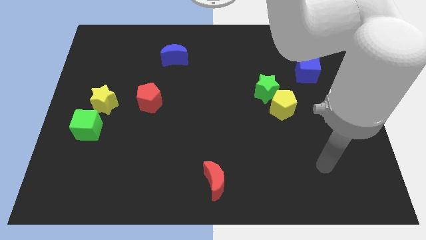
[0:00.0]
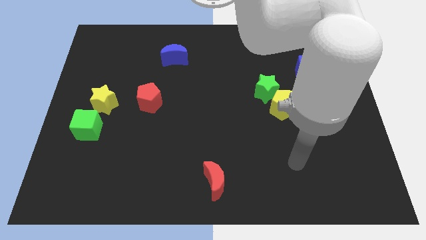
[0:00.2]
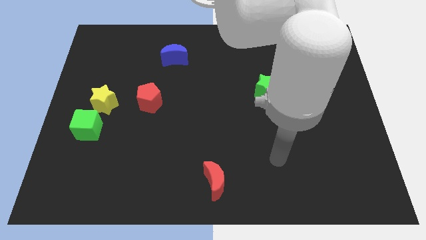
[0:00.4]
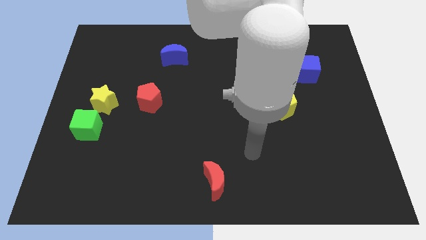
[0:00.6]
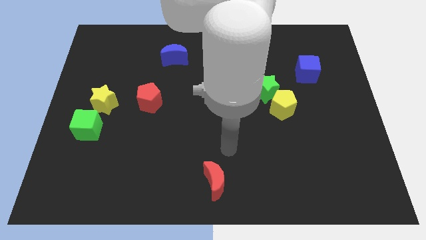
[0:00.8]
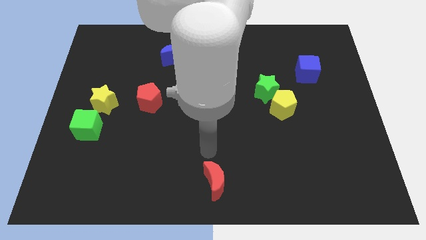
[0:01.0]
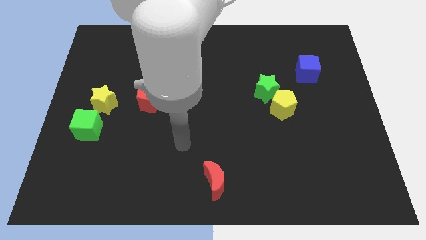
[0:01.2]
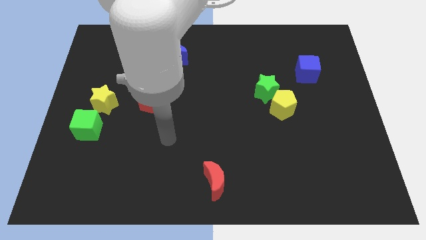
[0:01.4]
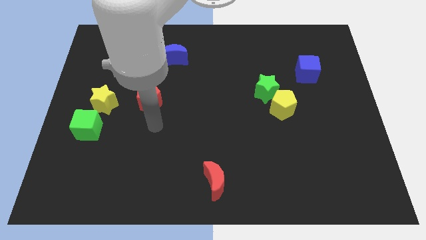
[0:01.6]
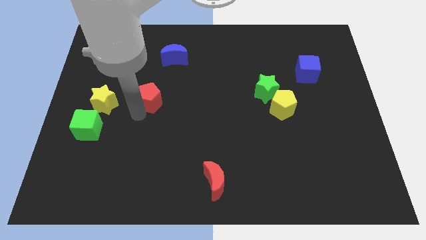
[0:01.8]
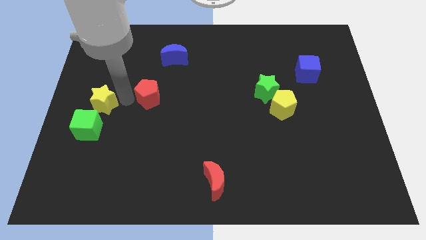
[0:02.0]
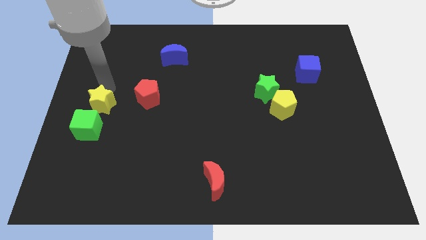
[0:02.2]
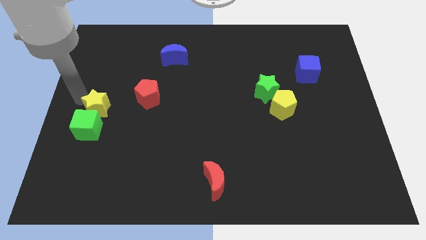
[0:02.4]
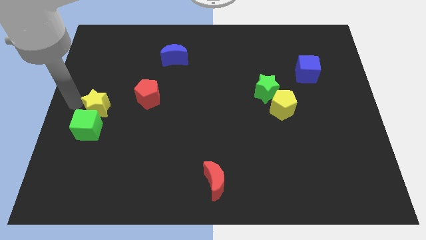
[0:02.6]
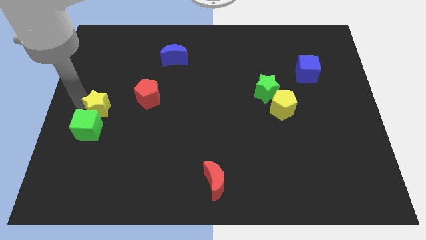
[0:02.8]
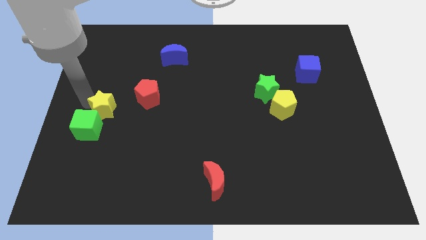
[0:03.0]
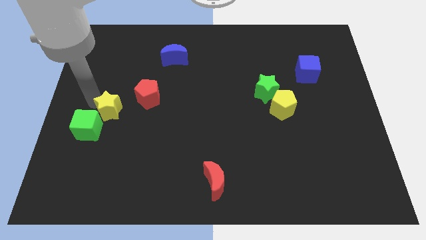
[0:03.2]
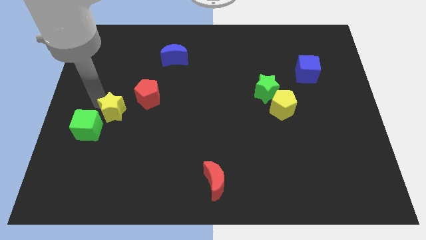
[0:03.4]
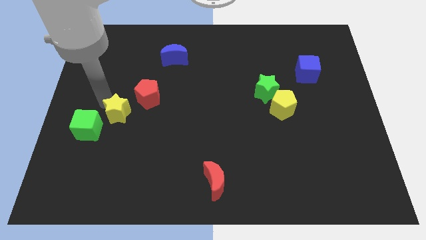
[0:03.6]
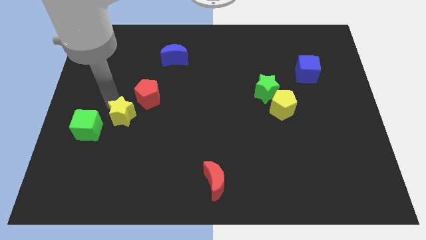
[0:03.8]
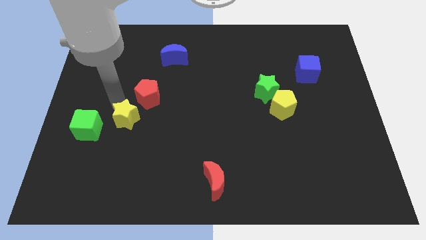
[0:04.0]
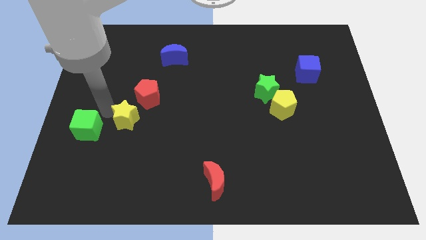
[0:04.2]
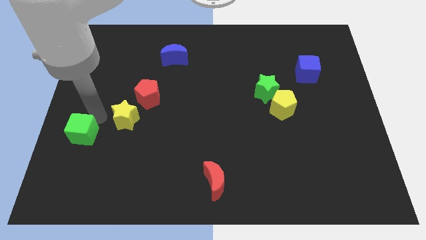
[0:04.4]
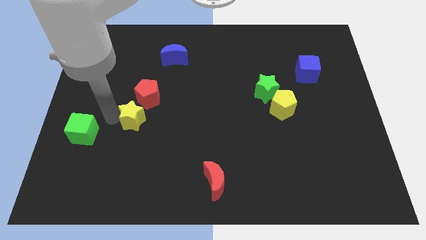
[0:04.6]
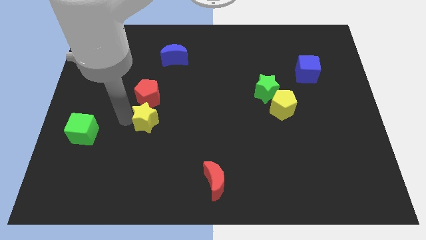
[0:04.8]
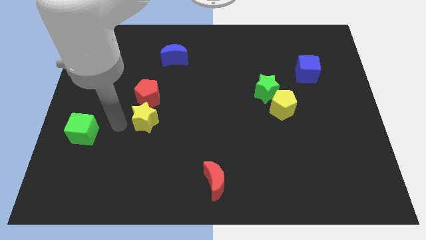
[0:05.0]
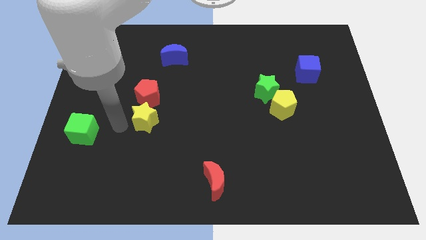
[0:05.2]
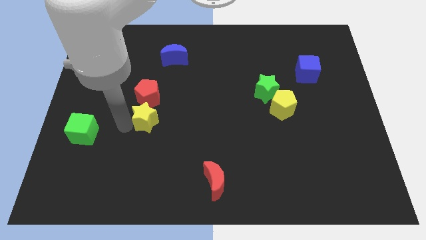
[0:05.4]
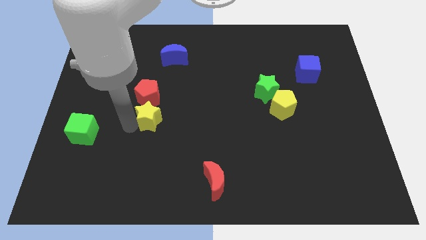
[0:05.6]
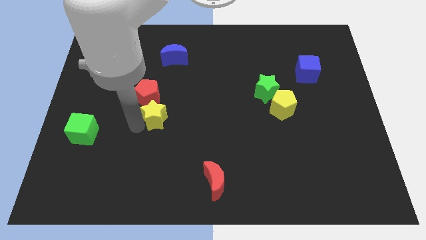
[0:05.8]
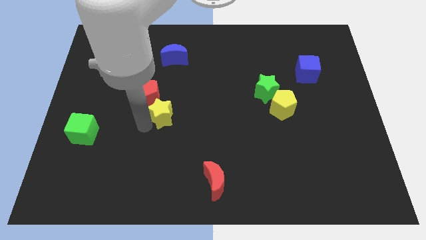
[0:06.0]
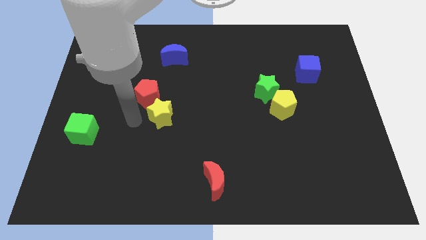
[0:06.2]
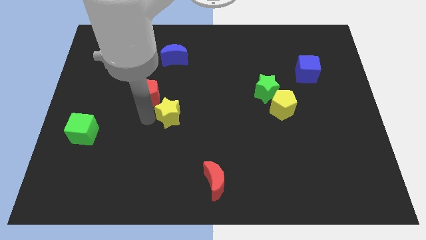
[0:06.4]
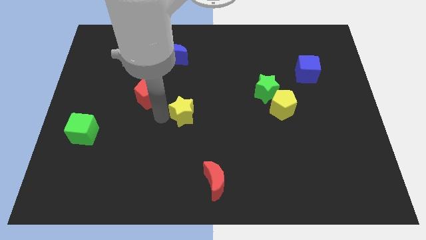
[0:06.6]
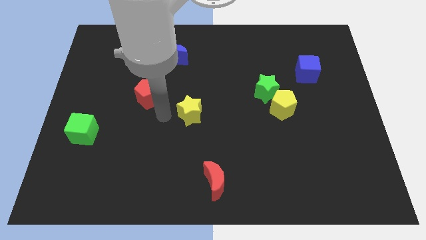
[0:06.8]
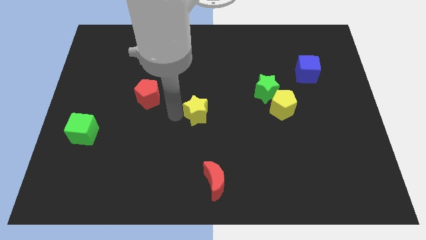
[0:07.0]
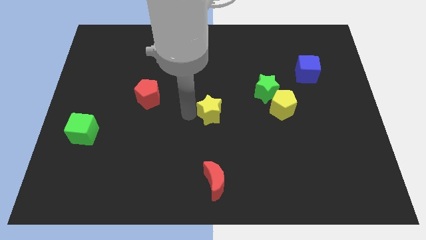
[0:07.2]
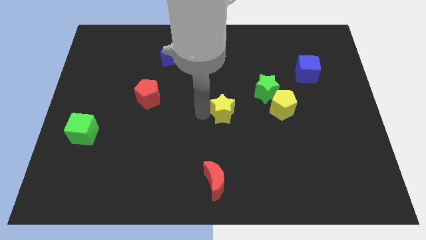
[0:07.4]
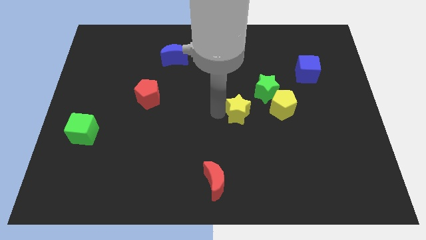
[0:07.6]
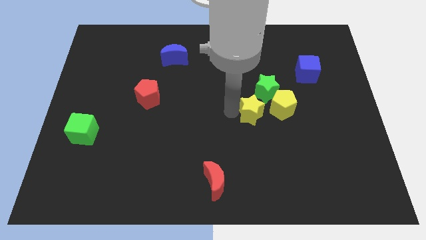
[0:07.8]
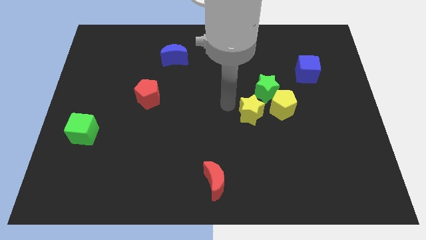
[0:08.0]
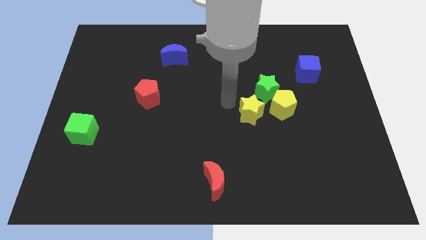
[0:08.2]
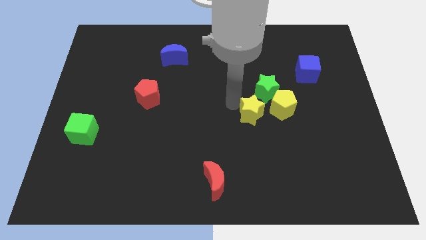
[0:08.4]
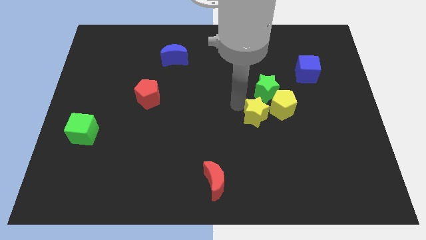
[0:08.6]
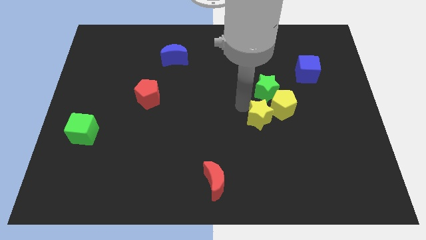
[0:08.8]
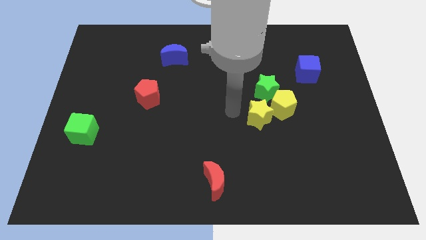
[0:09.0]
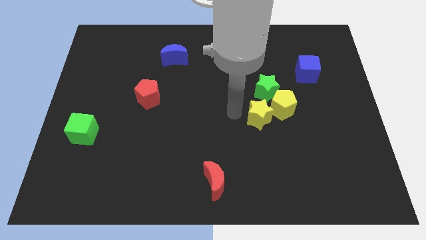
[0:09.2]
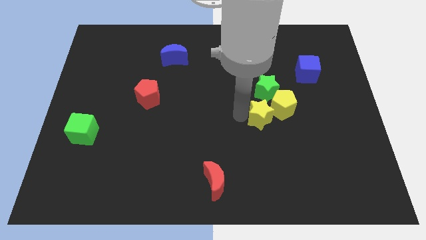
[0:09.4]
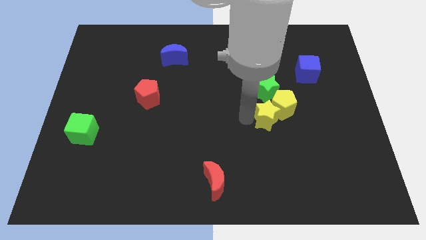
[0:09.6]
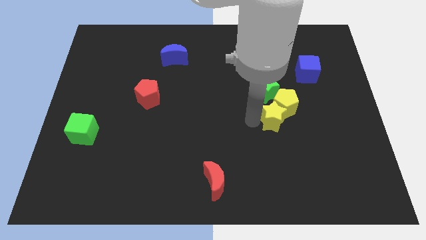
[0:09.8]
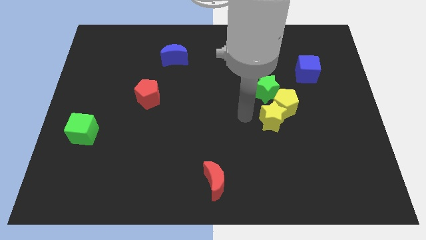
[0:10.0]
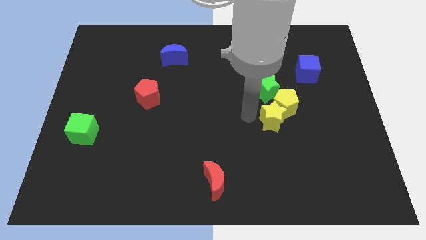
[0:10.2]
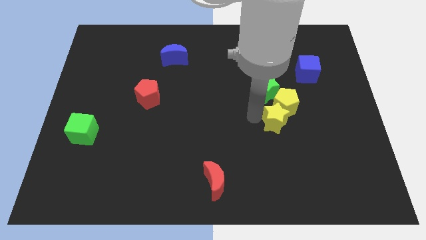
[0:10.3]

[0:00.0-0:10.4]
push the yellow star to the bottom right side of the green star

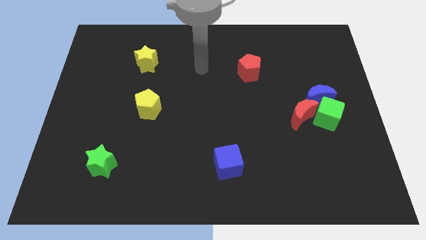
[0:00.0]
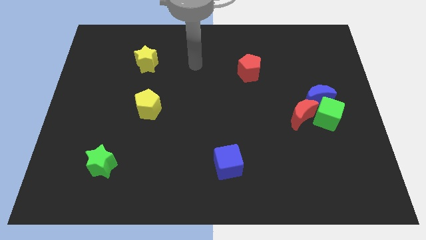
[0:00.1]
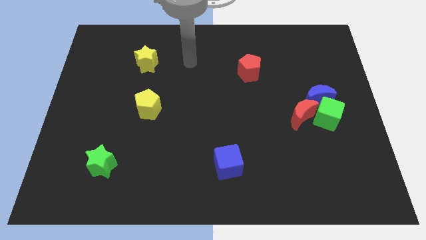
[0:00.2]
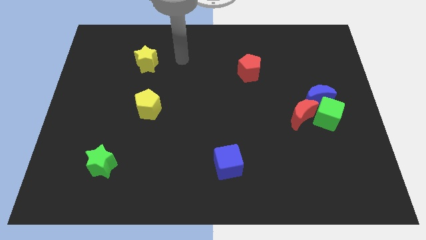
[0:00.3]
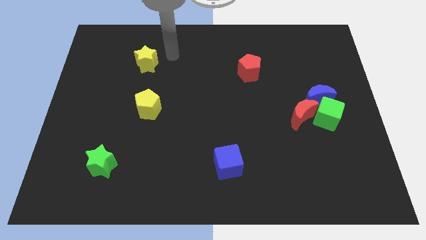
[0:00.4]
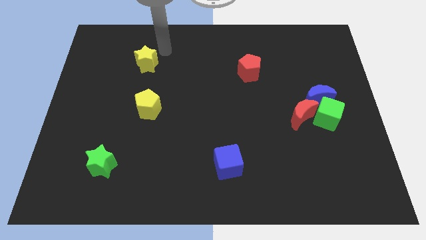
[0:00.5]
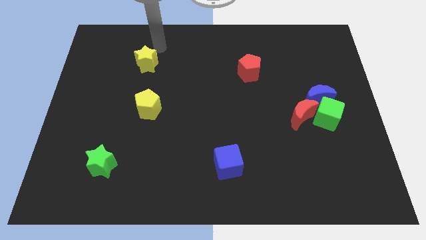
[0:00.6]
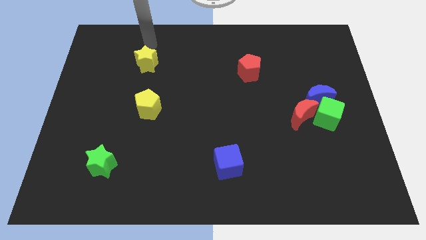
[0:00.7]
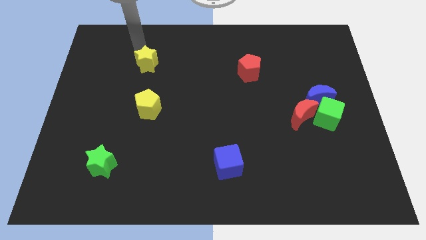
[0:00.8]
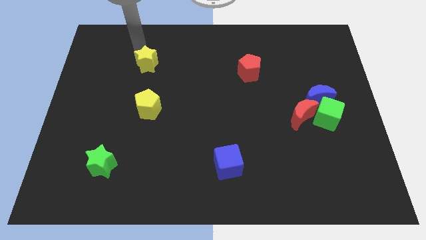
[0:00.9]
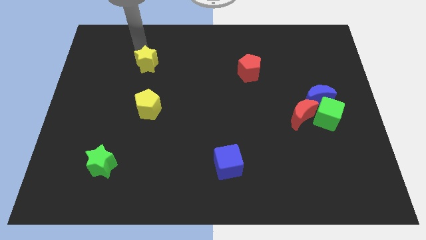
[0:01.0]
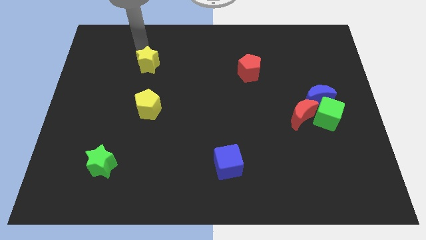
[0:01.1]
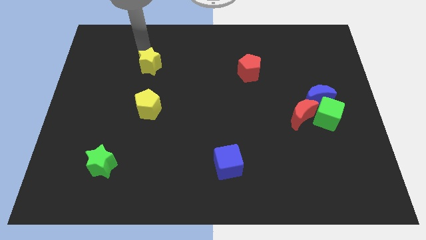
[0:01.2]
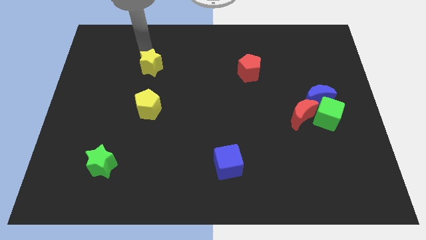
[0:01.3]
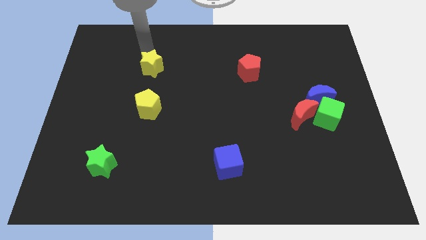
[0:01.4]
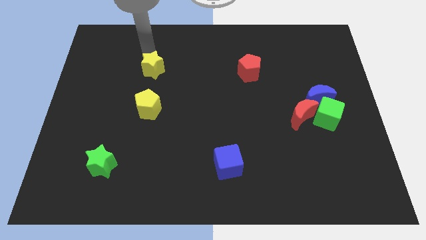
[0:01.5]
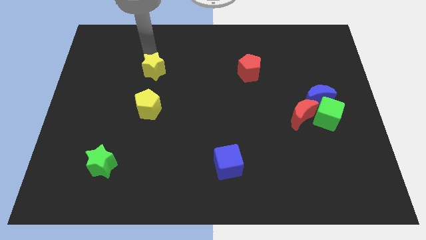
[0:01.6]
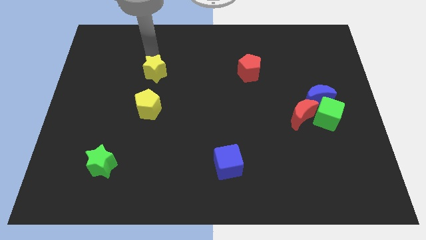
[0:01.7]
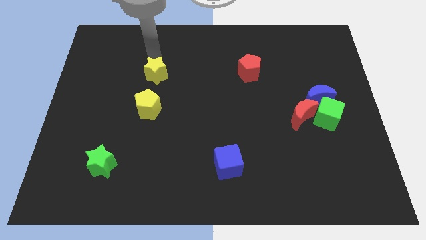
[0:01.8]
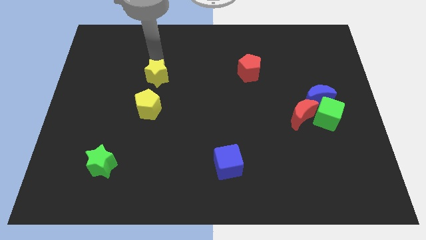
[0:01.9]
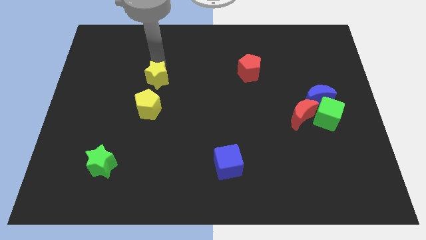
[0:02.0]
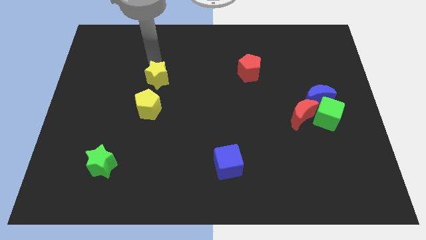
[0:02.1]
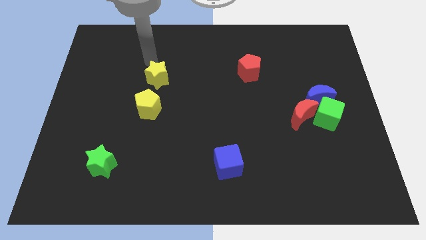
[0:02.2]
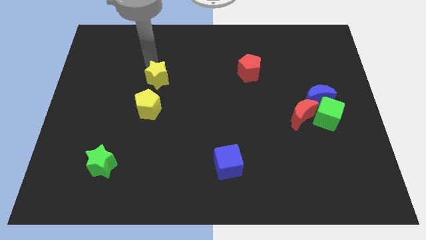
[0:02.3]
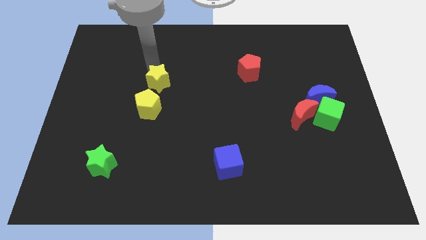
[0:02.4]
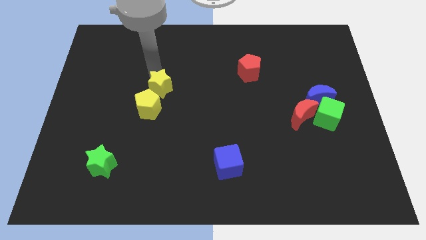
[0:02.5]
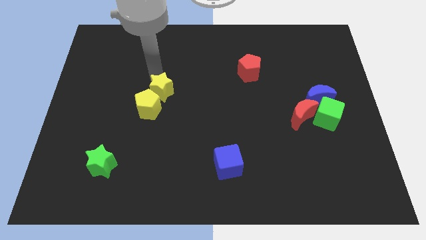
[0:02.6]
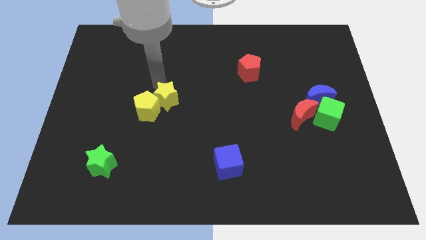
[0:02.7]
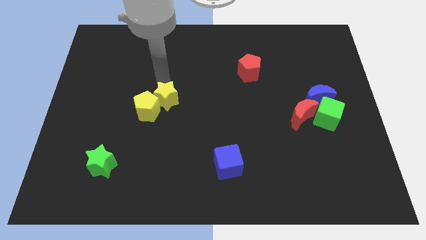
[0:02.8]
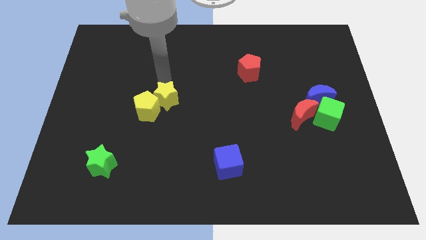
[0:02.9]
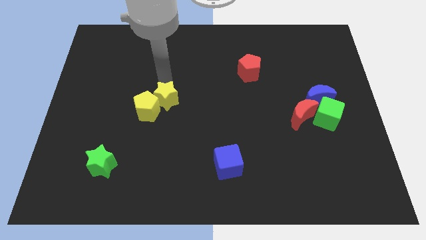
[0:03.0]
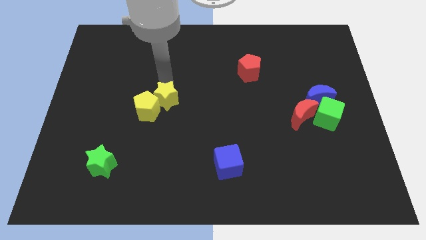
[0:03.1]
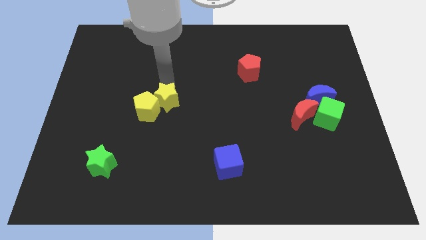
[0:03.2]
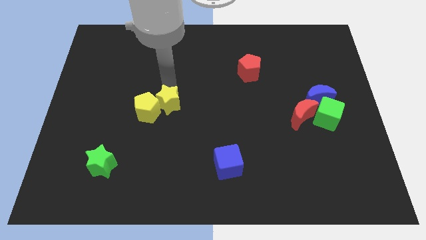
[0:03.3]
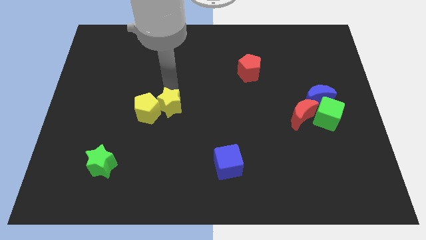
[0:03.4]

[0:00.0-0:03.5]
put the yellow star to the bottom right side of the yellow pentagon
